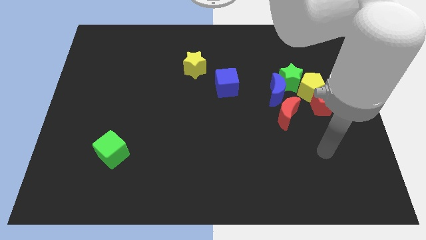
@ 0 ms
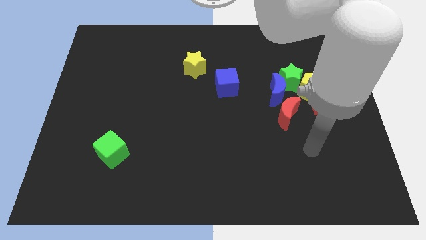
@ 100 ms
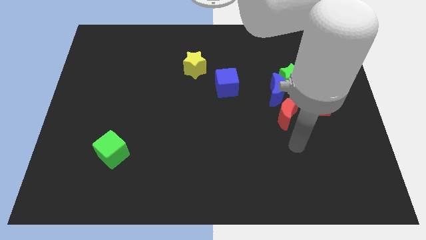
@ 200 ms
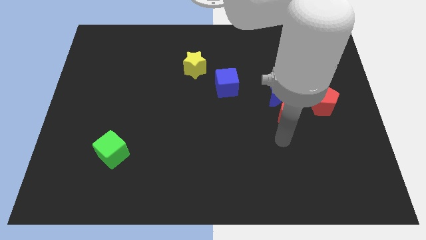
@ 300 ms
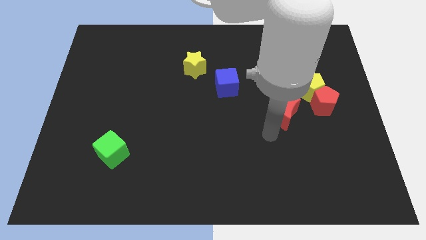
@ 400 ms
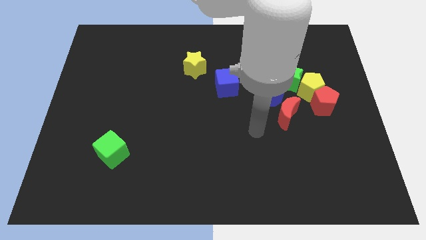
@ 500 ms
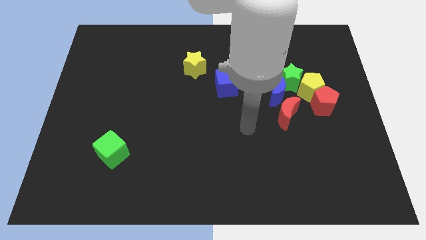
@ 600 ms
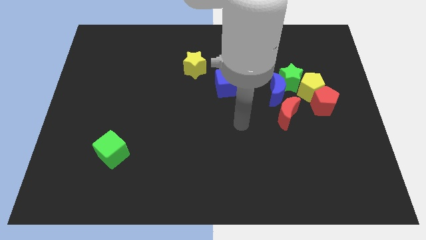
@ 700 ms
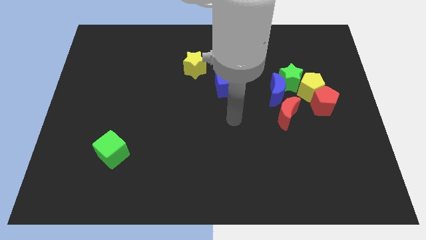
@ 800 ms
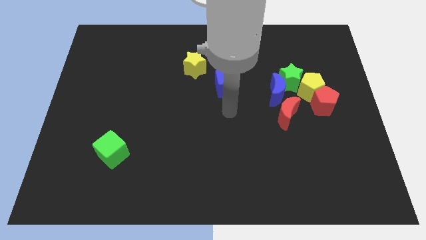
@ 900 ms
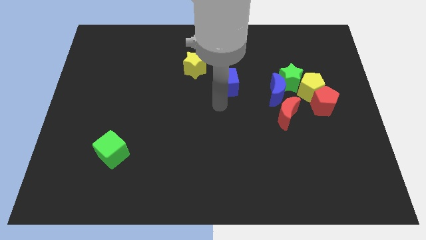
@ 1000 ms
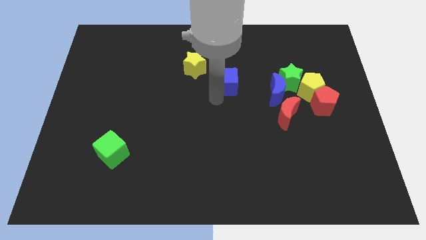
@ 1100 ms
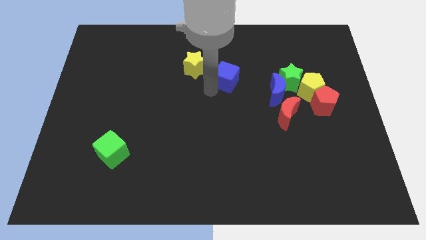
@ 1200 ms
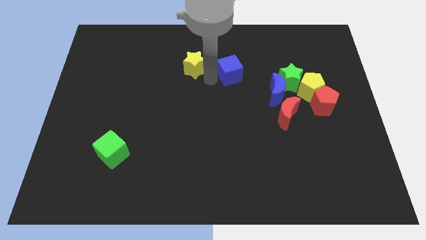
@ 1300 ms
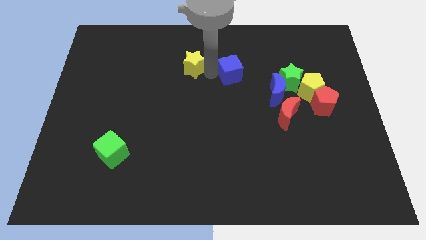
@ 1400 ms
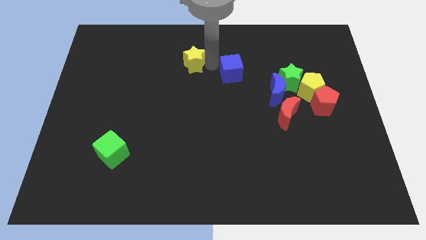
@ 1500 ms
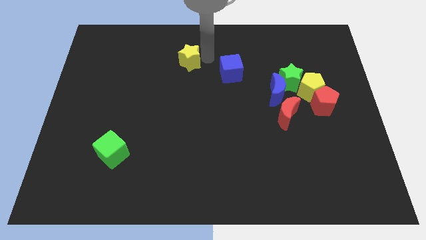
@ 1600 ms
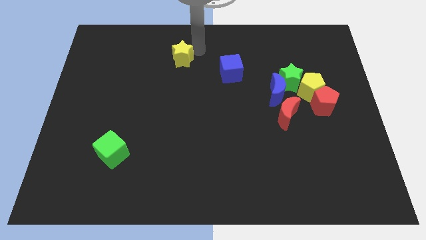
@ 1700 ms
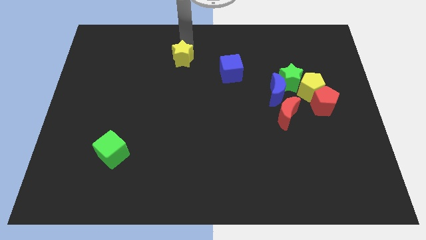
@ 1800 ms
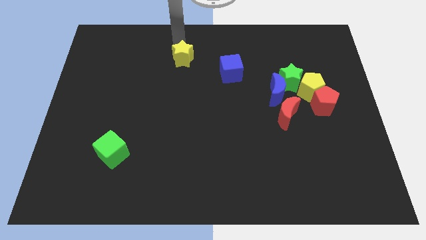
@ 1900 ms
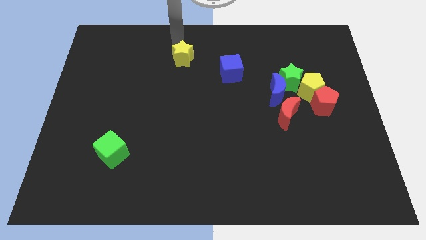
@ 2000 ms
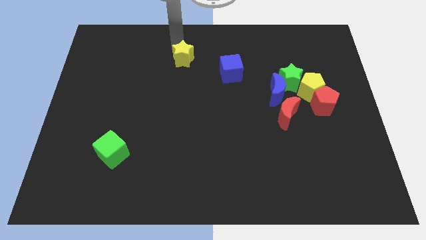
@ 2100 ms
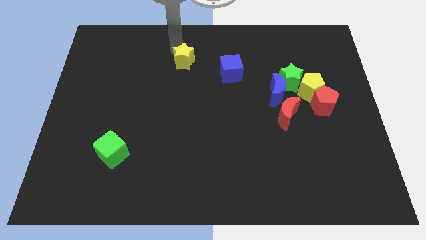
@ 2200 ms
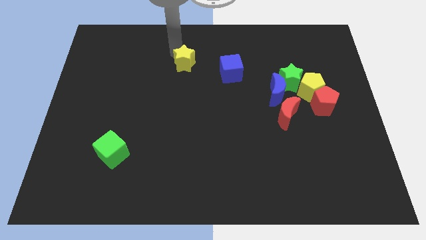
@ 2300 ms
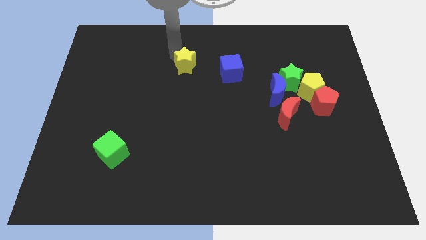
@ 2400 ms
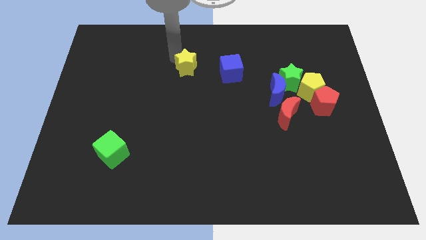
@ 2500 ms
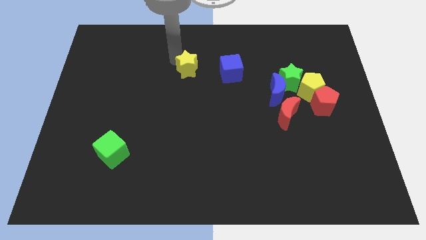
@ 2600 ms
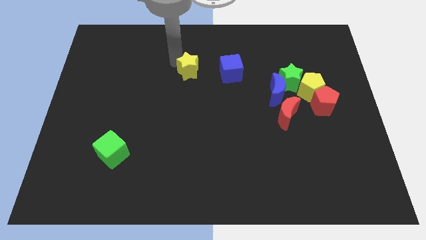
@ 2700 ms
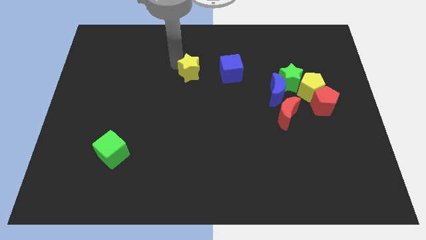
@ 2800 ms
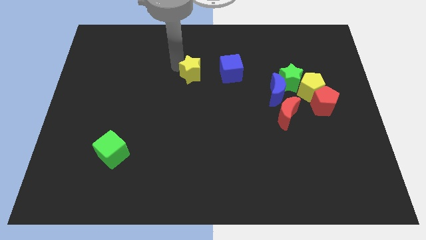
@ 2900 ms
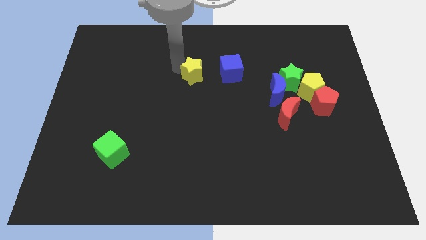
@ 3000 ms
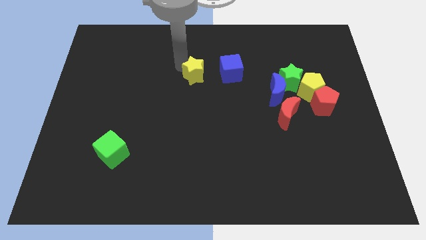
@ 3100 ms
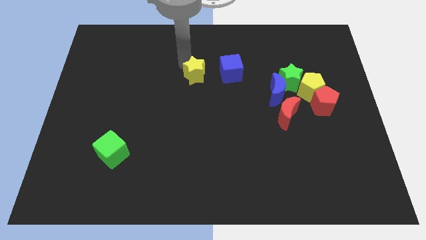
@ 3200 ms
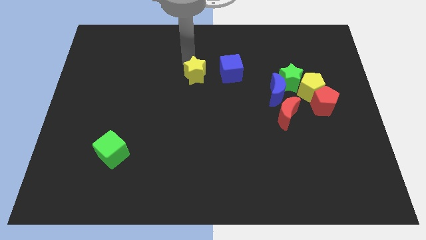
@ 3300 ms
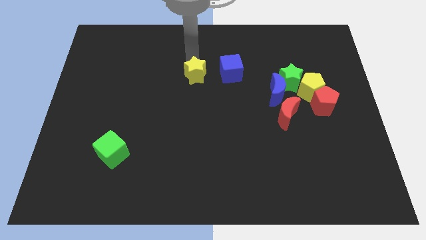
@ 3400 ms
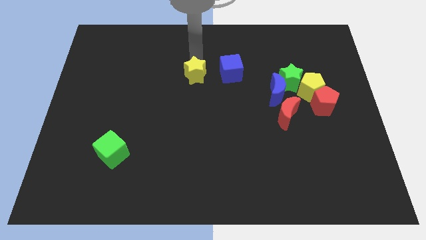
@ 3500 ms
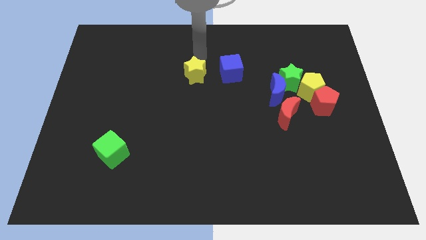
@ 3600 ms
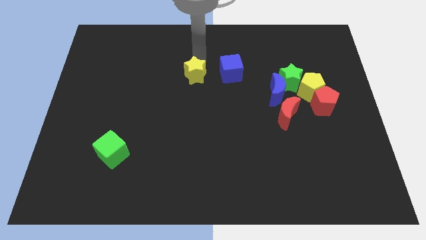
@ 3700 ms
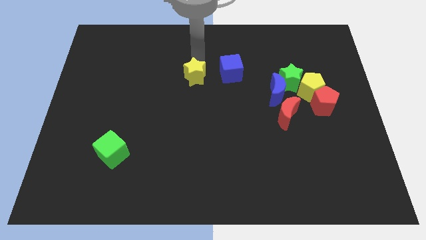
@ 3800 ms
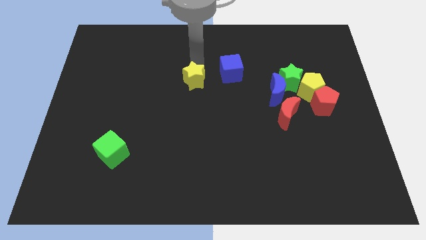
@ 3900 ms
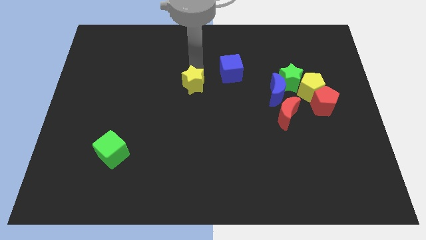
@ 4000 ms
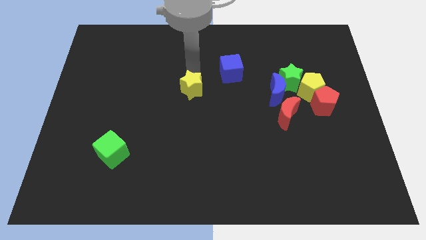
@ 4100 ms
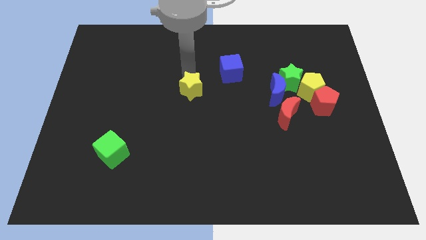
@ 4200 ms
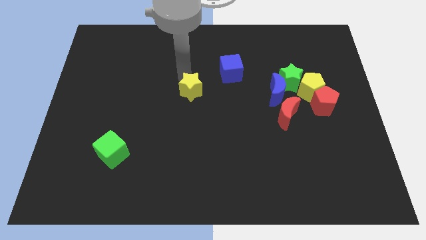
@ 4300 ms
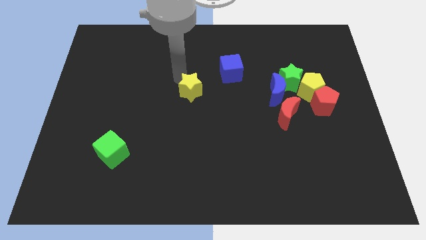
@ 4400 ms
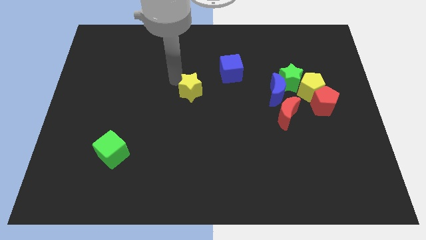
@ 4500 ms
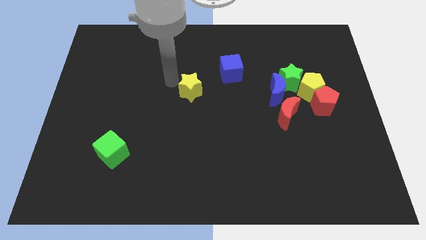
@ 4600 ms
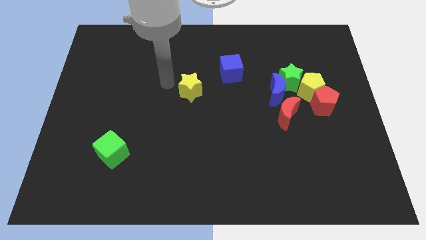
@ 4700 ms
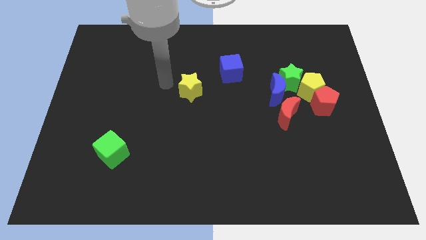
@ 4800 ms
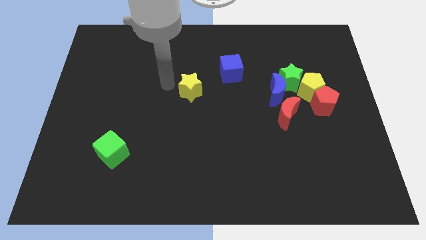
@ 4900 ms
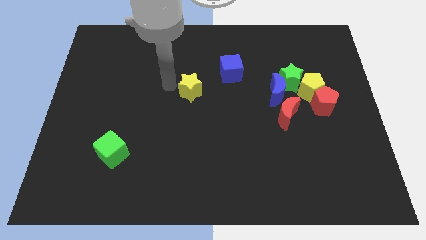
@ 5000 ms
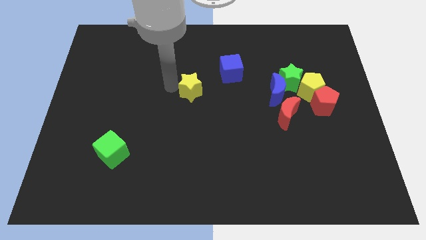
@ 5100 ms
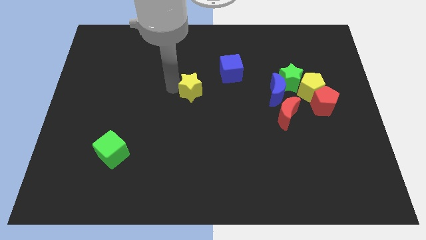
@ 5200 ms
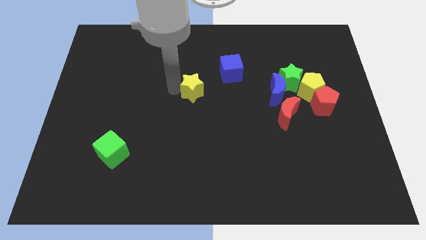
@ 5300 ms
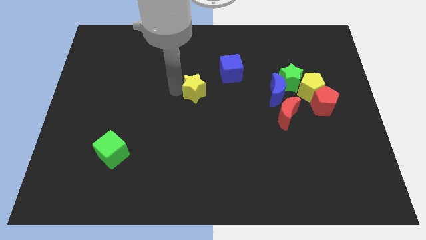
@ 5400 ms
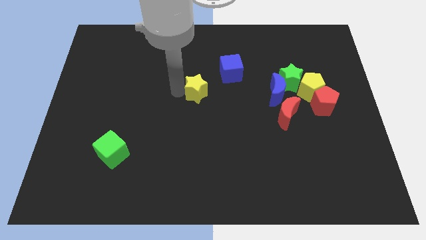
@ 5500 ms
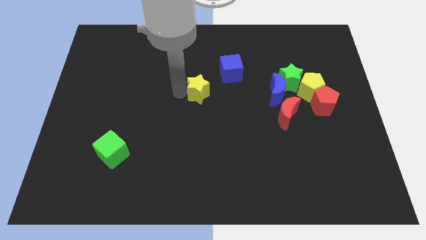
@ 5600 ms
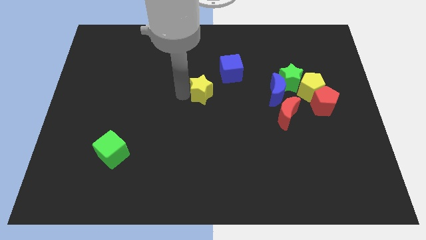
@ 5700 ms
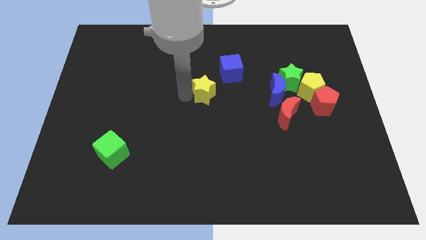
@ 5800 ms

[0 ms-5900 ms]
move the yellow star a bit down and right

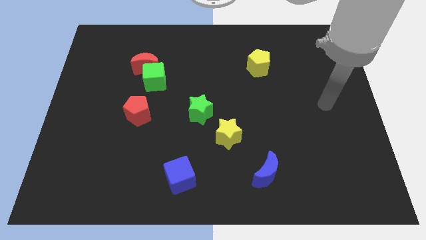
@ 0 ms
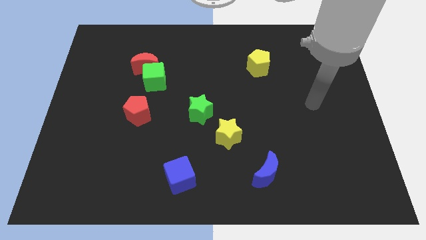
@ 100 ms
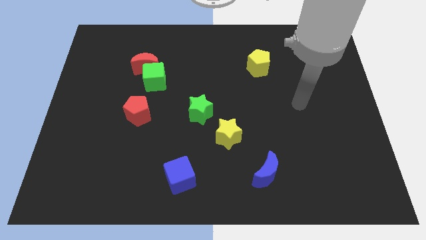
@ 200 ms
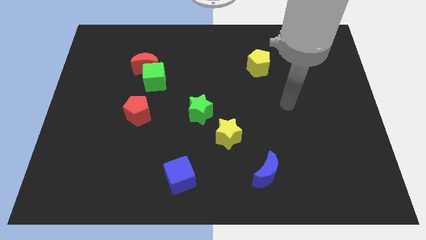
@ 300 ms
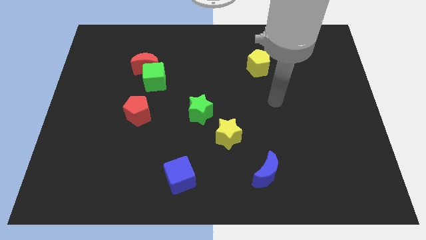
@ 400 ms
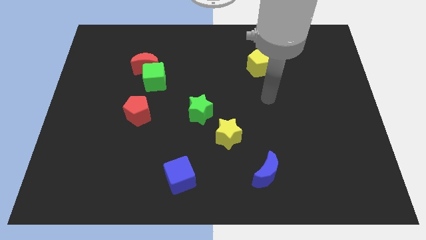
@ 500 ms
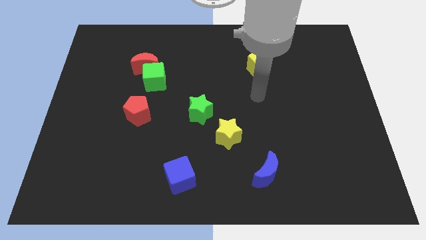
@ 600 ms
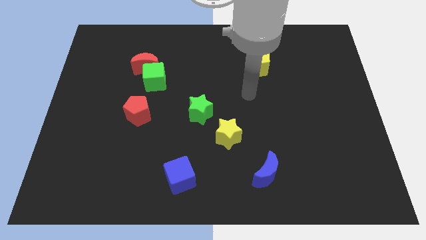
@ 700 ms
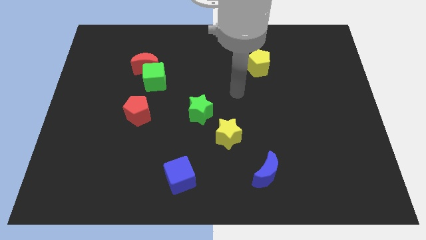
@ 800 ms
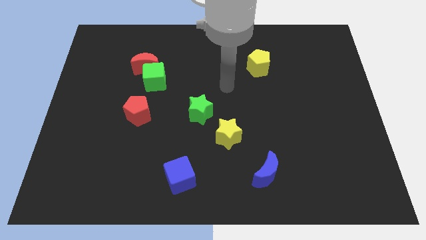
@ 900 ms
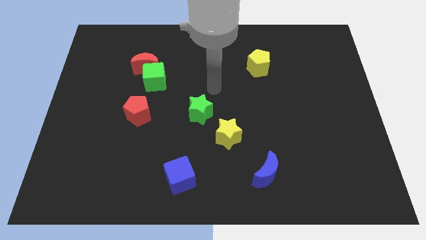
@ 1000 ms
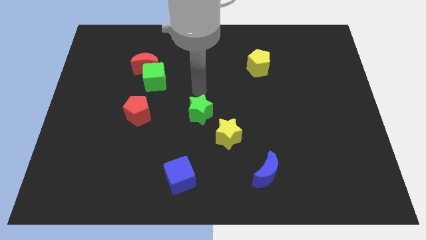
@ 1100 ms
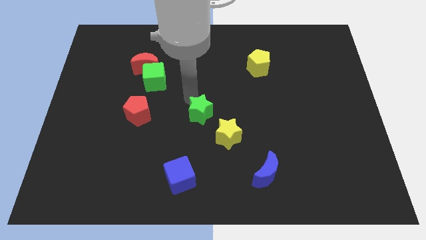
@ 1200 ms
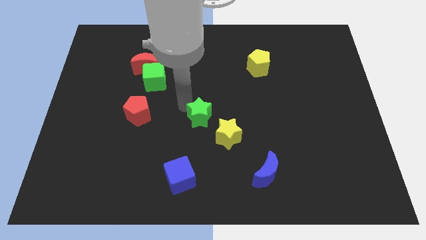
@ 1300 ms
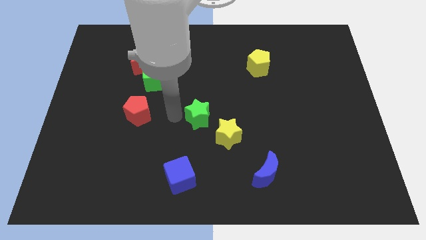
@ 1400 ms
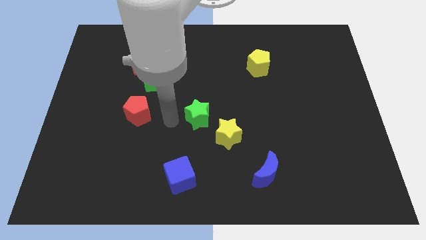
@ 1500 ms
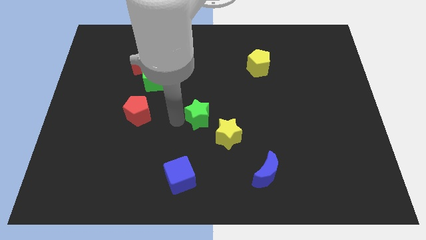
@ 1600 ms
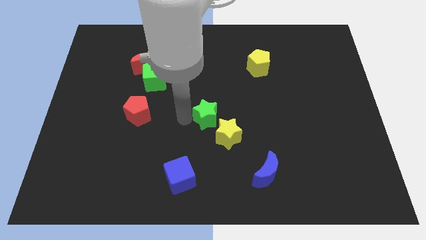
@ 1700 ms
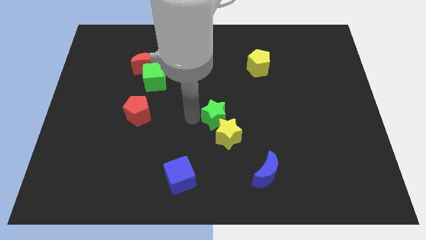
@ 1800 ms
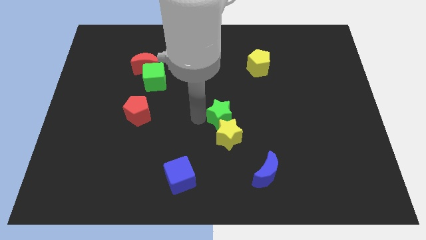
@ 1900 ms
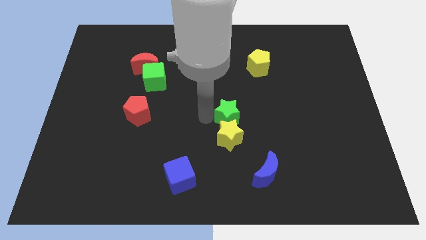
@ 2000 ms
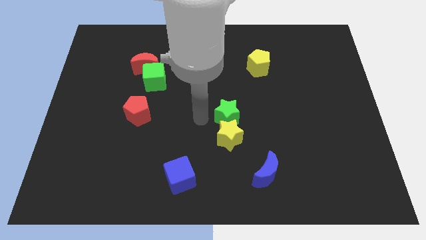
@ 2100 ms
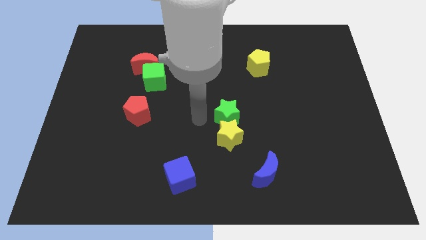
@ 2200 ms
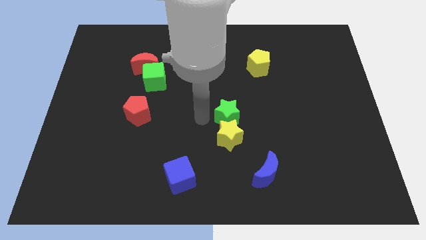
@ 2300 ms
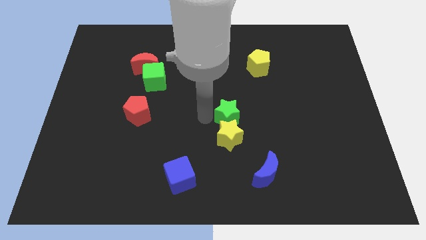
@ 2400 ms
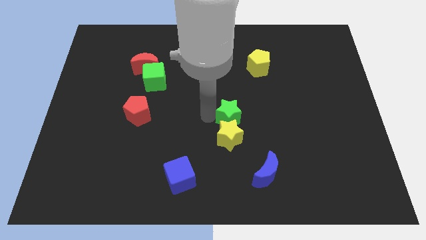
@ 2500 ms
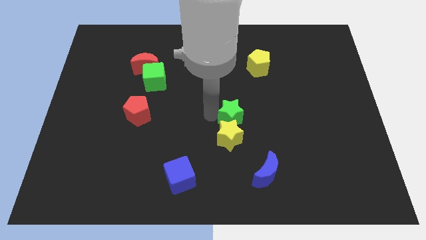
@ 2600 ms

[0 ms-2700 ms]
move the green star somewhat right
